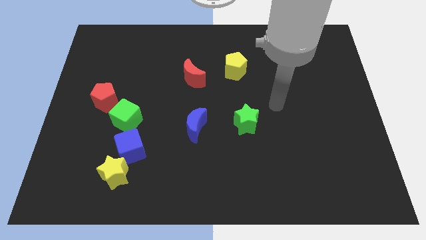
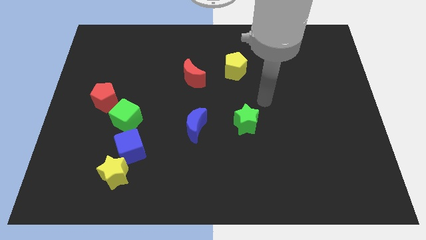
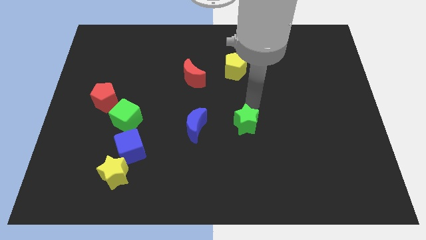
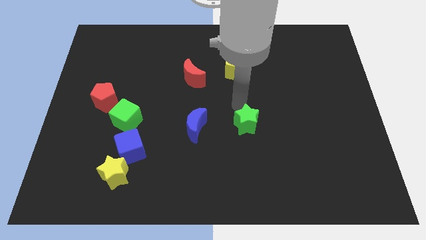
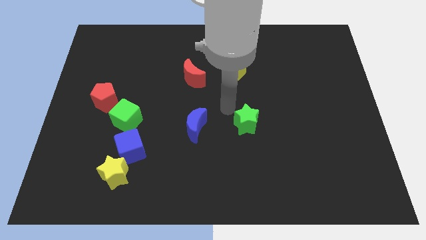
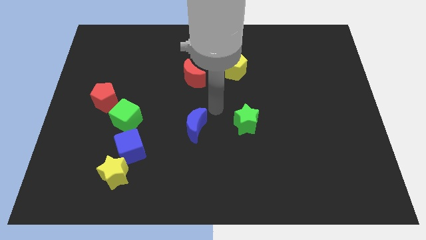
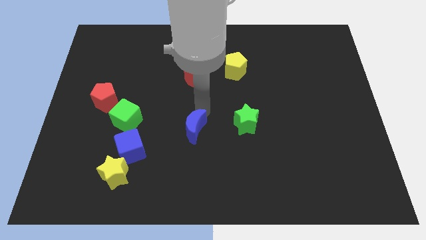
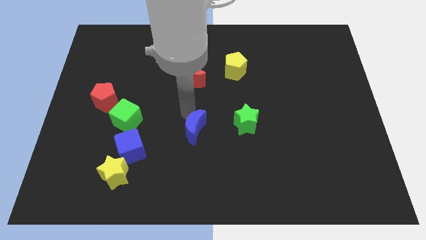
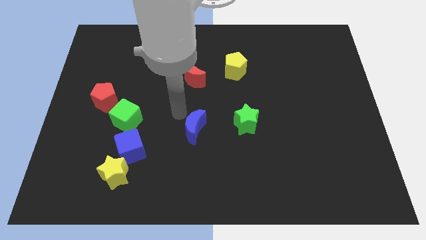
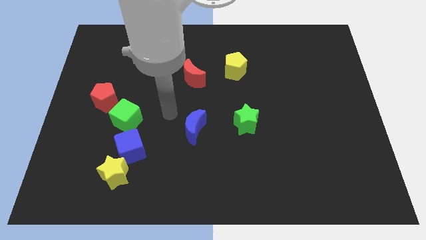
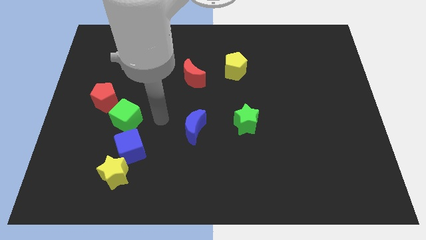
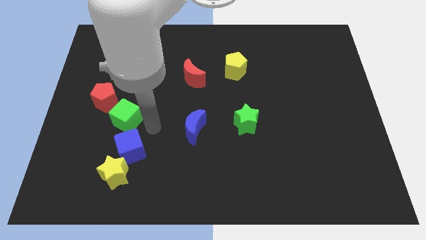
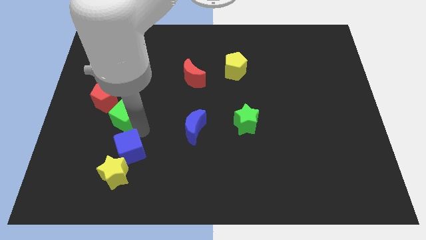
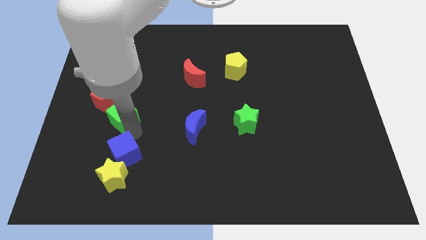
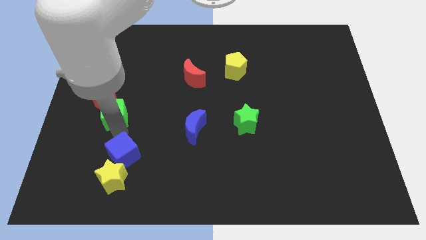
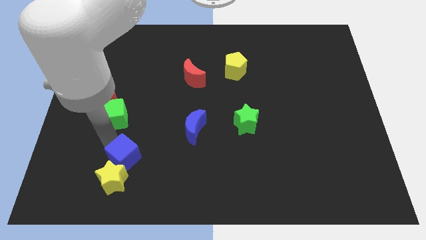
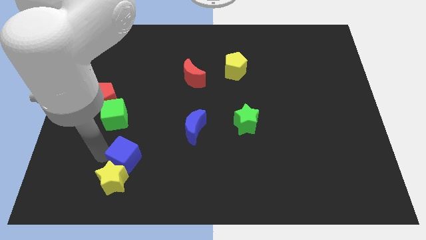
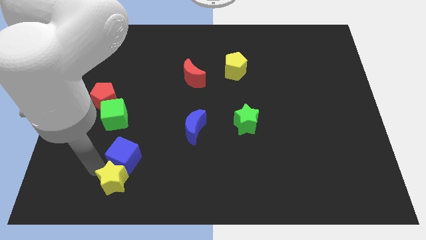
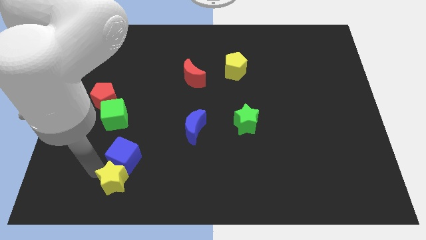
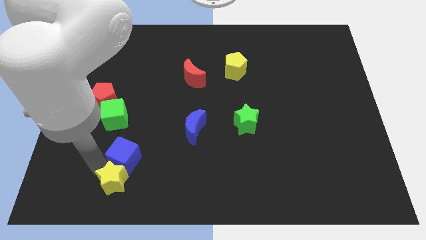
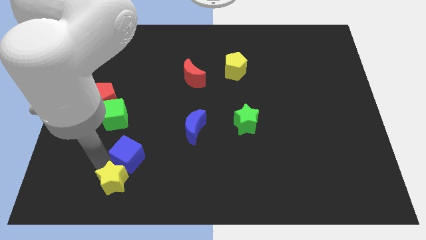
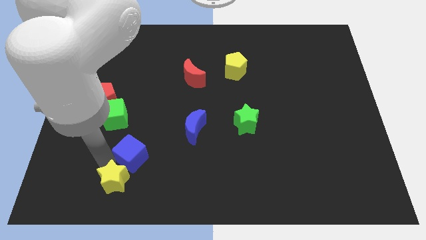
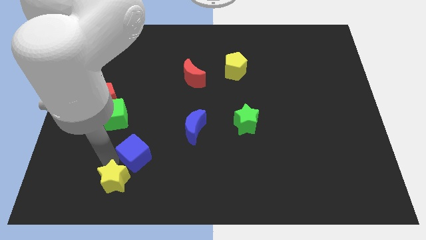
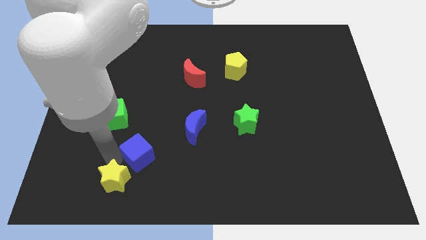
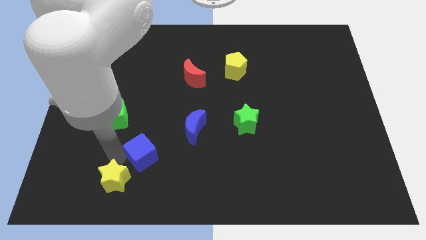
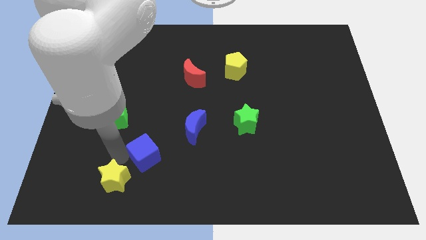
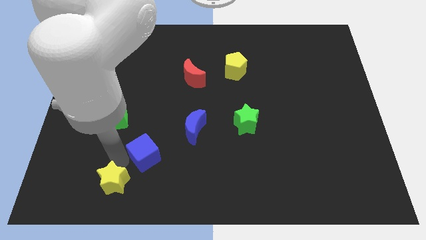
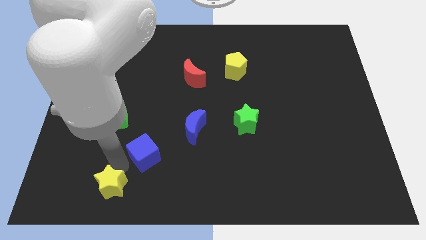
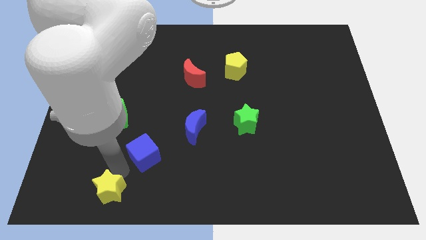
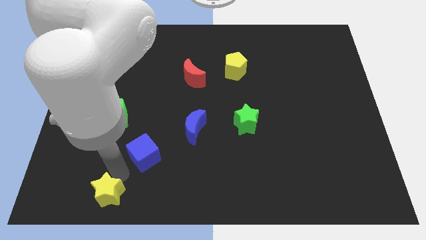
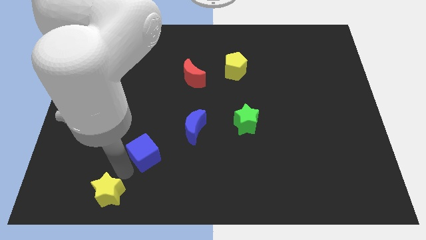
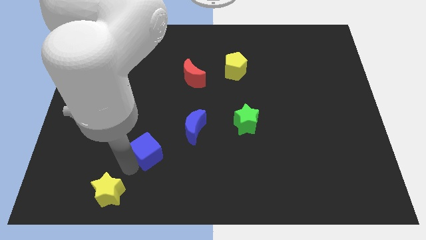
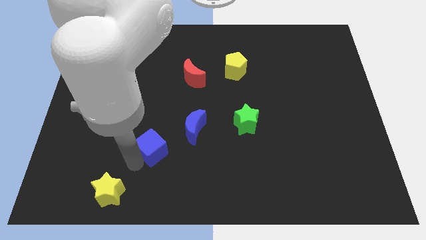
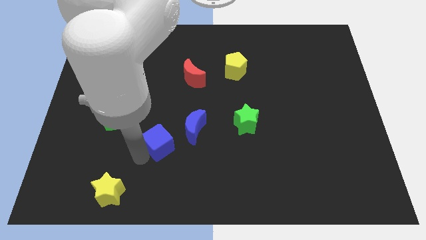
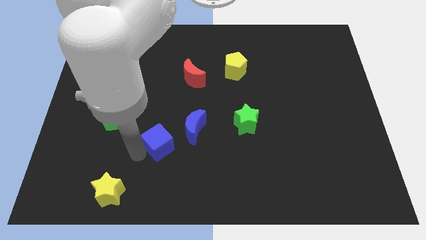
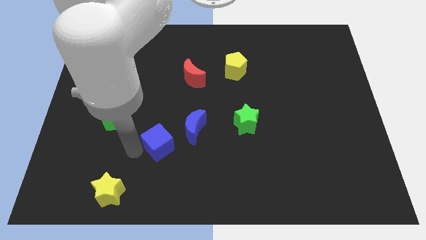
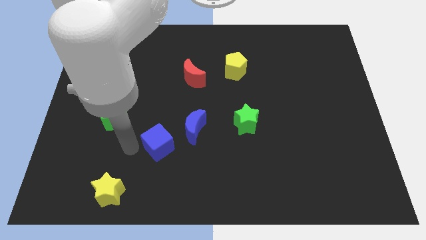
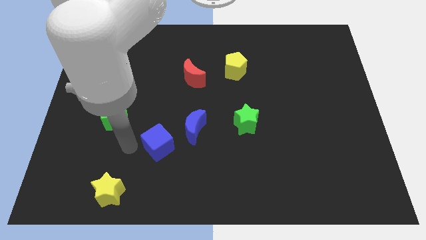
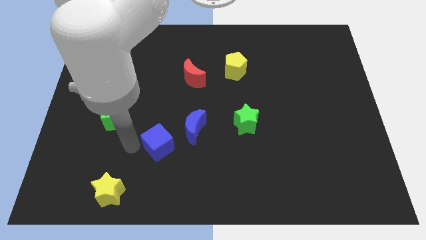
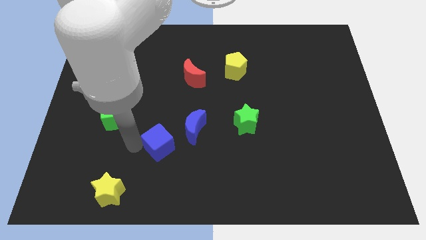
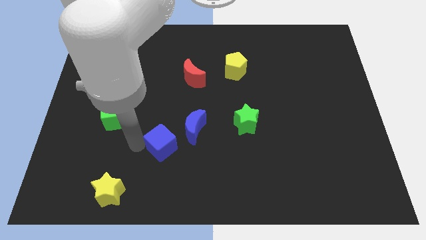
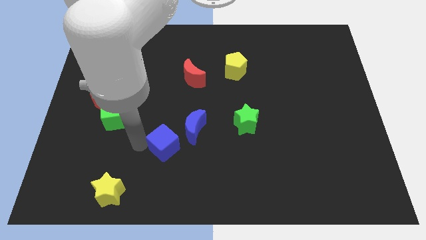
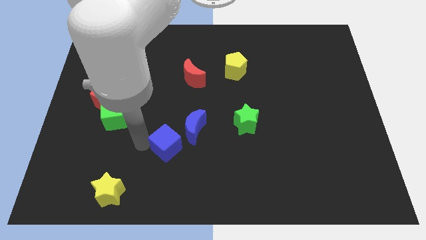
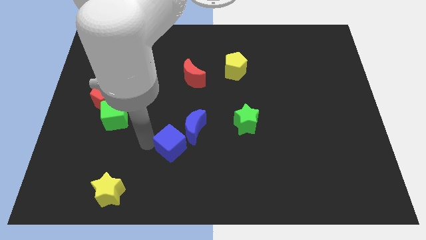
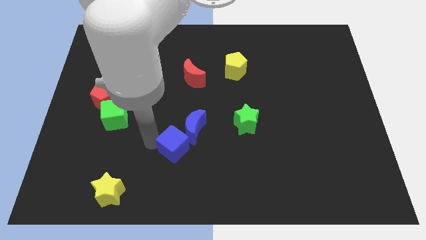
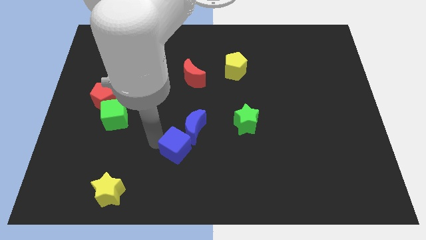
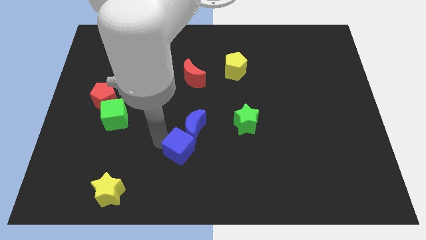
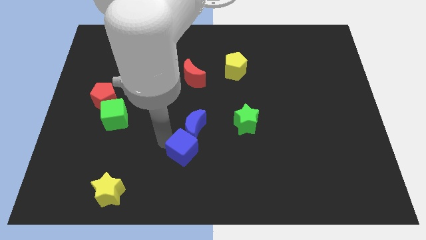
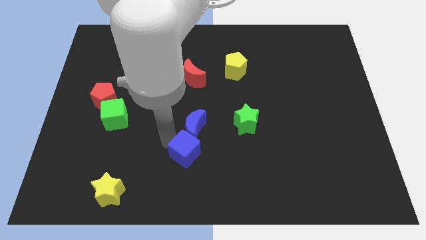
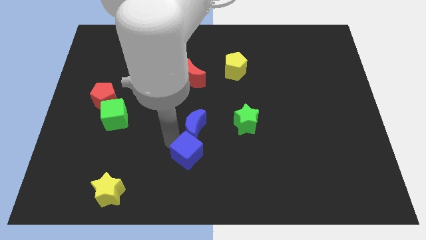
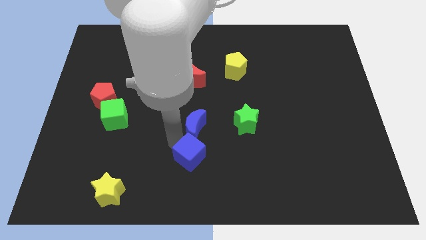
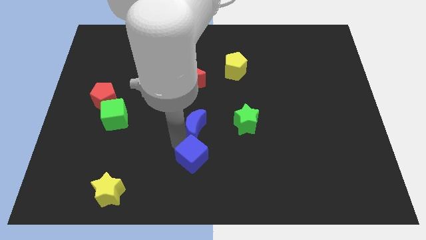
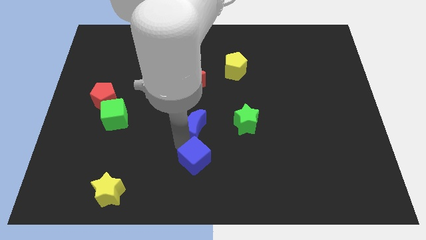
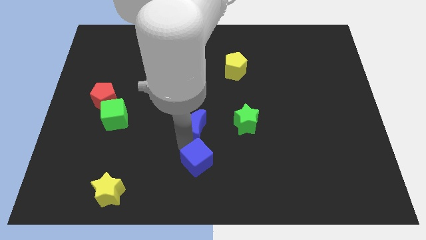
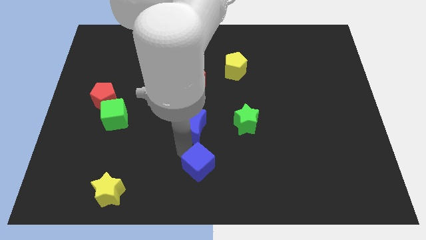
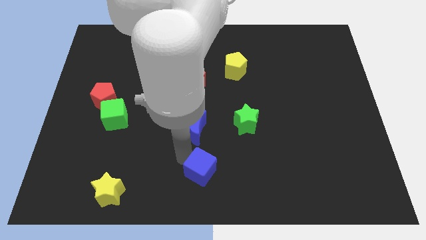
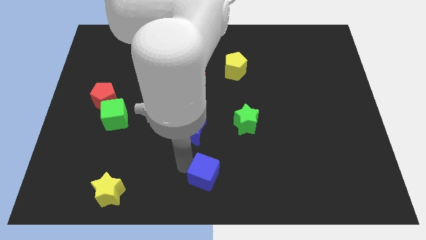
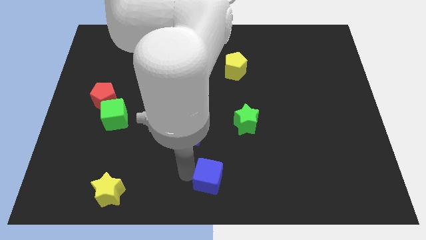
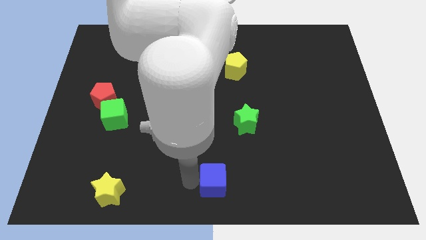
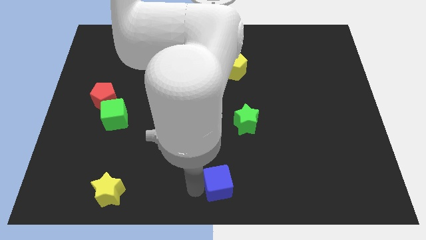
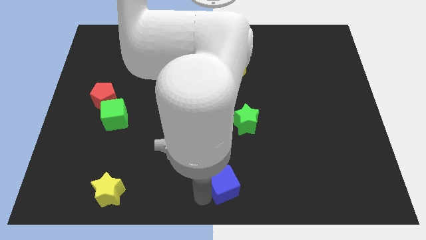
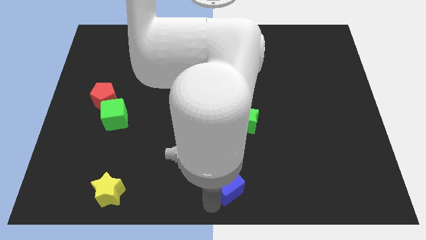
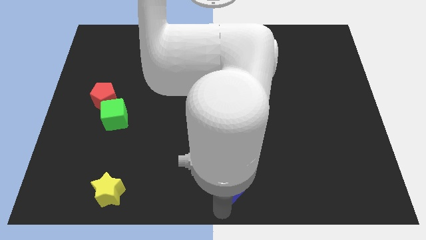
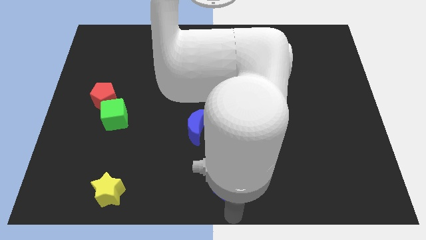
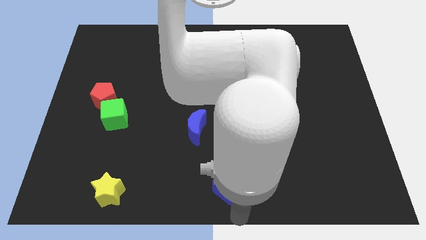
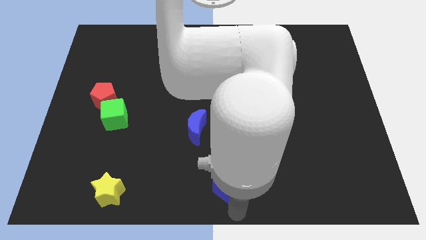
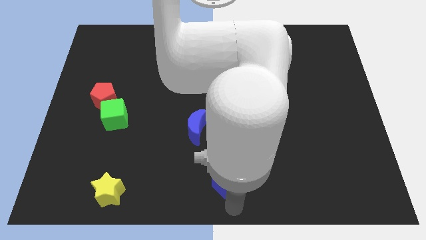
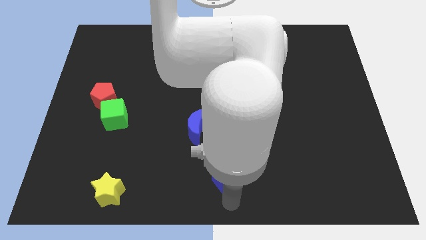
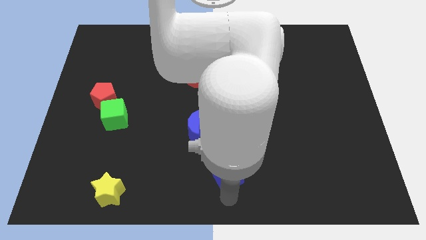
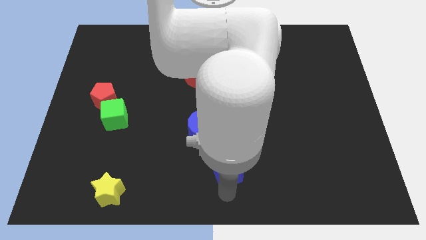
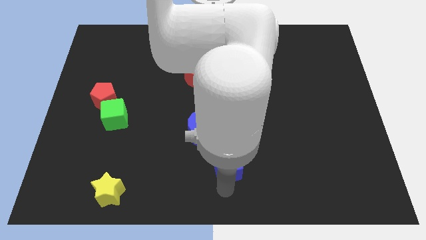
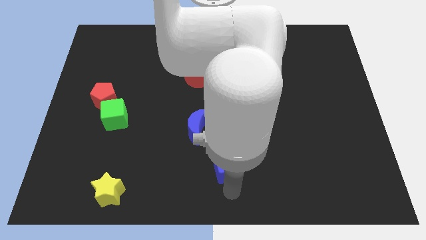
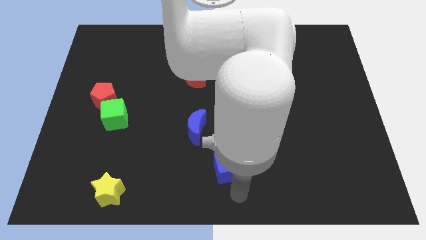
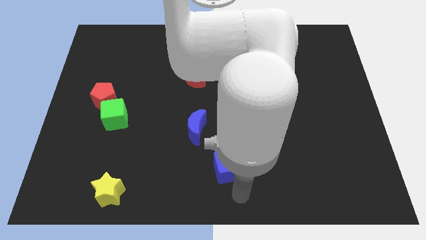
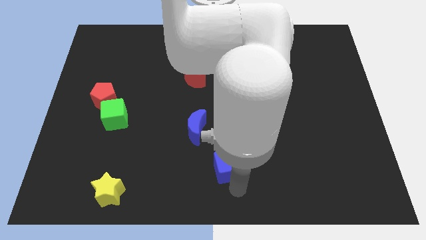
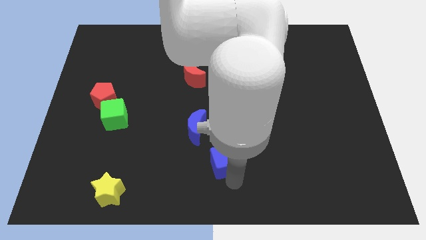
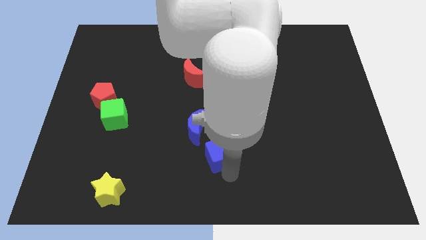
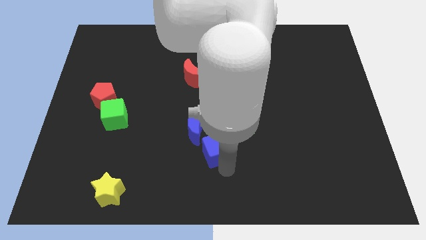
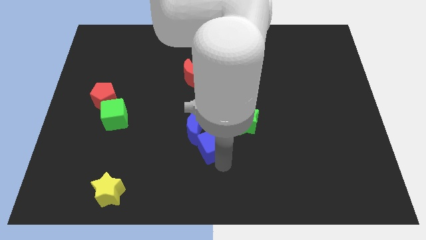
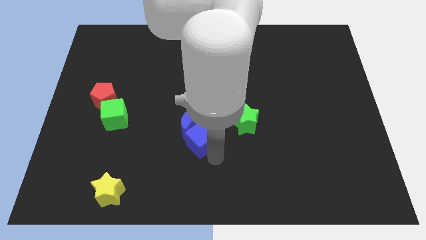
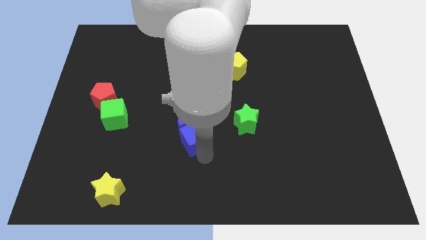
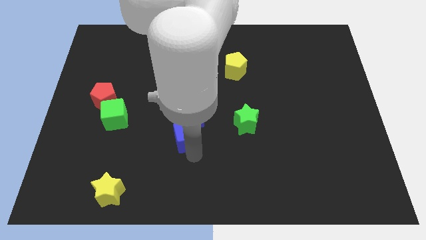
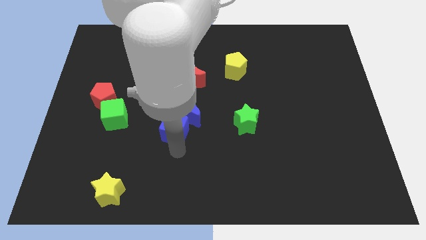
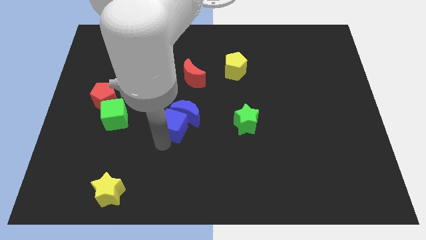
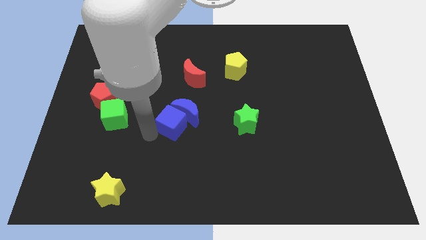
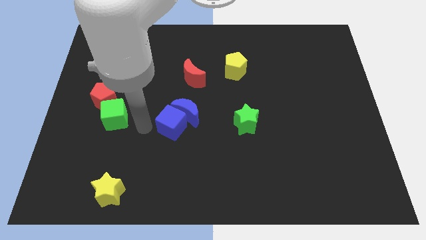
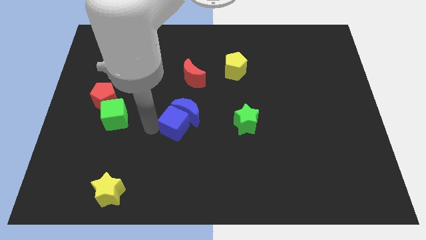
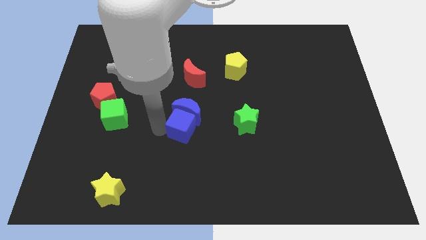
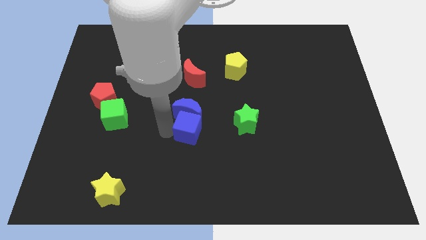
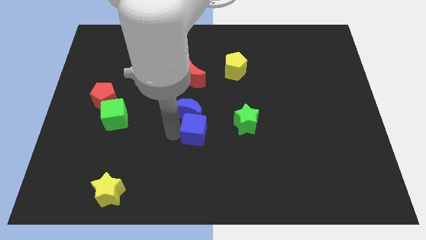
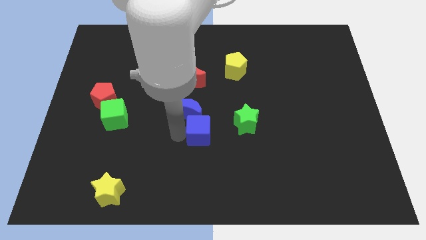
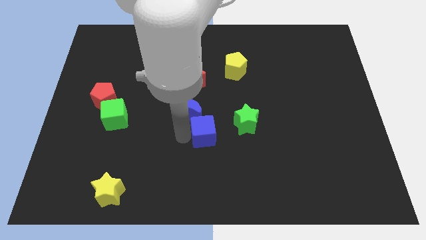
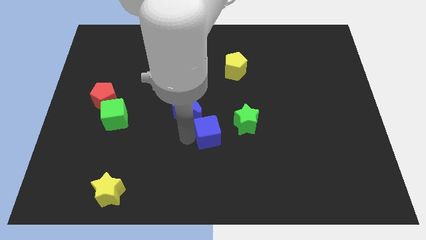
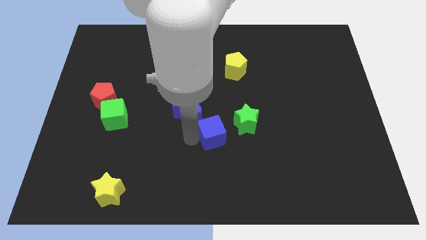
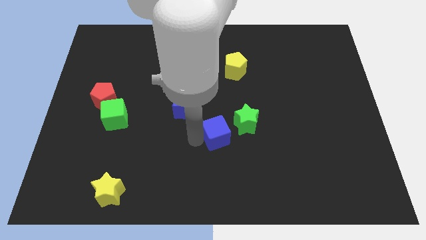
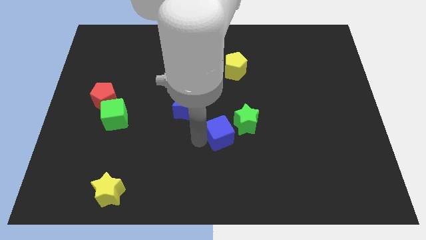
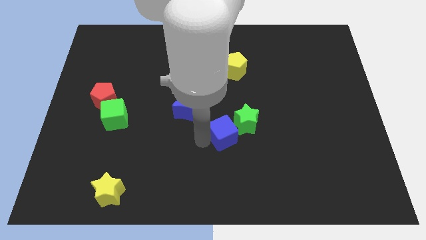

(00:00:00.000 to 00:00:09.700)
push the blue cube close to the green star
